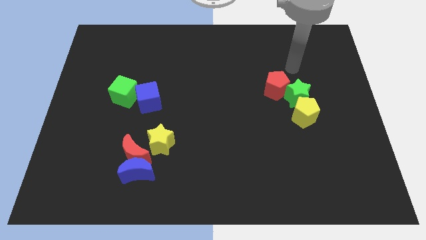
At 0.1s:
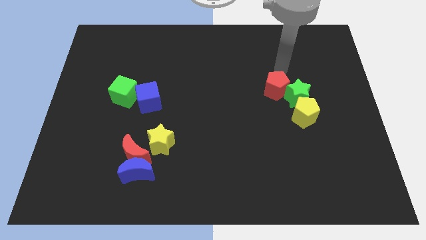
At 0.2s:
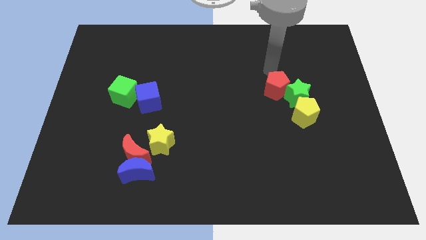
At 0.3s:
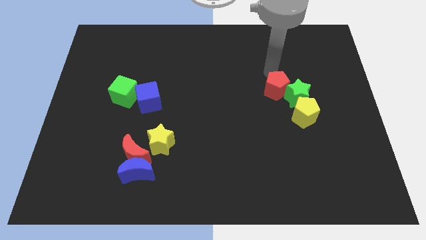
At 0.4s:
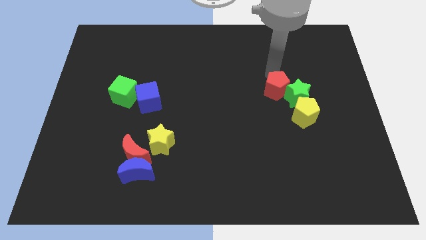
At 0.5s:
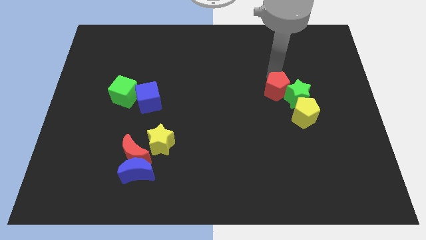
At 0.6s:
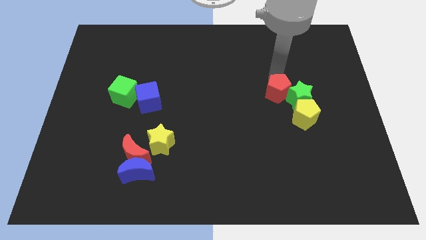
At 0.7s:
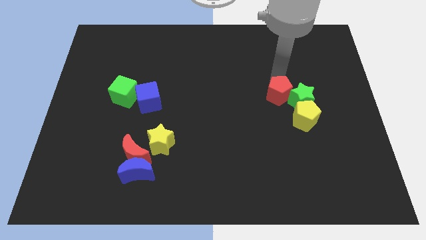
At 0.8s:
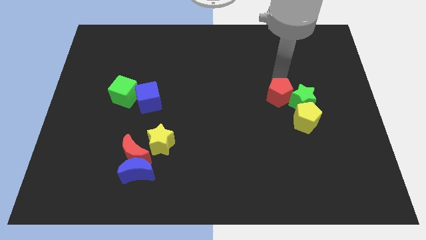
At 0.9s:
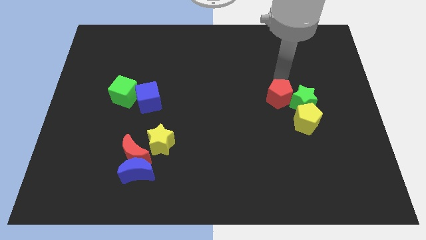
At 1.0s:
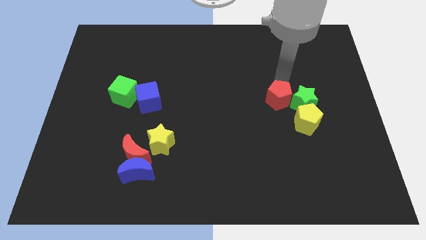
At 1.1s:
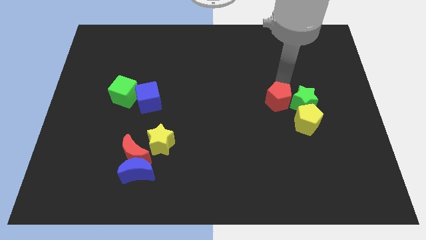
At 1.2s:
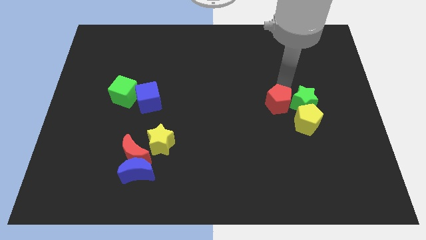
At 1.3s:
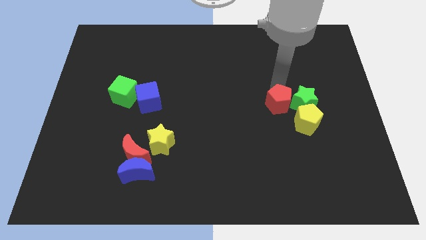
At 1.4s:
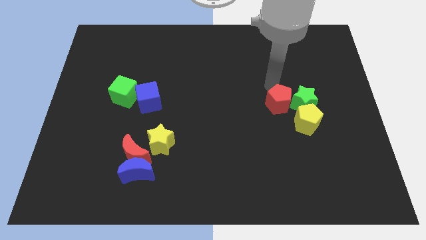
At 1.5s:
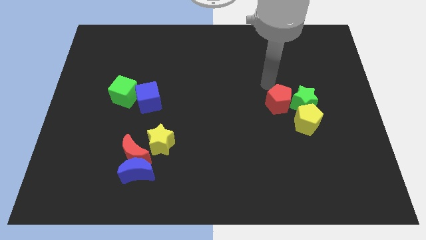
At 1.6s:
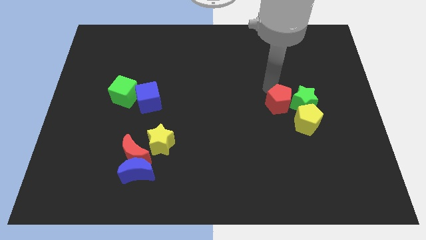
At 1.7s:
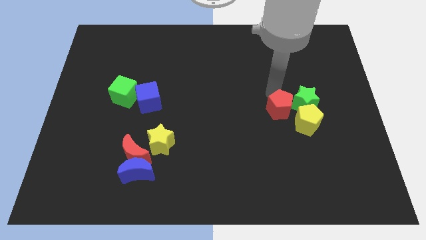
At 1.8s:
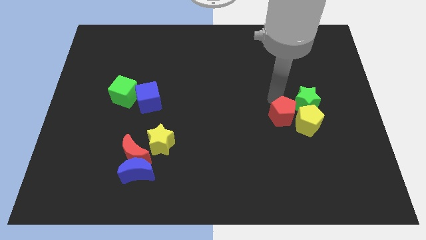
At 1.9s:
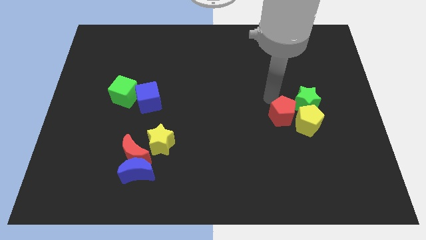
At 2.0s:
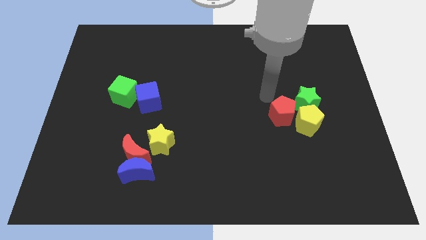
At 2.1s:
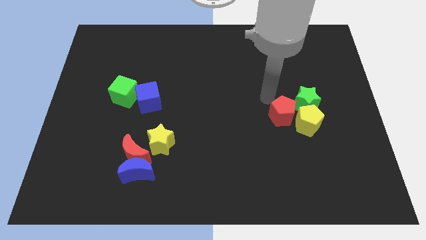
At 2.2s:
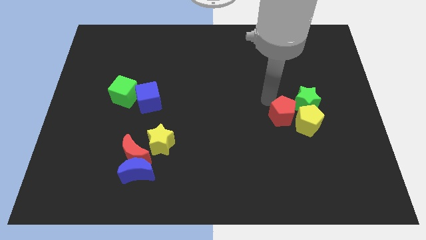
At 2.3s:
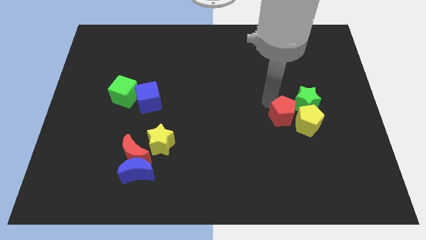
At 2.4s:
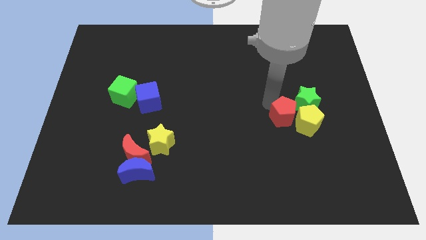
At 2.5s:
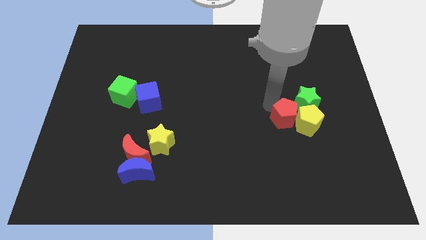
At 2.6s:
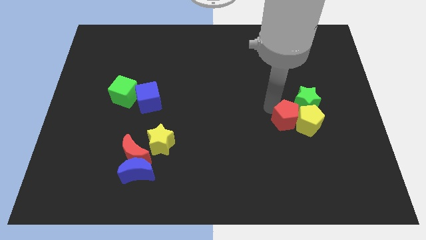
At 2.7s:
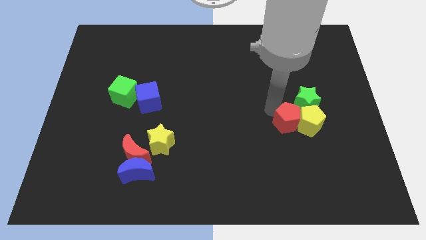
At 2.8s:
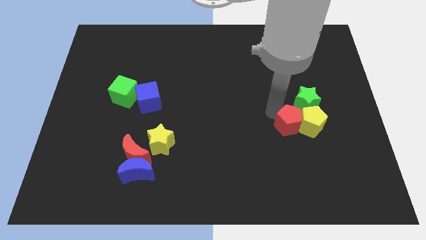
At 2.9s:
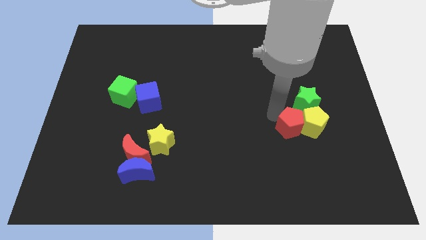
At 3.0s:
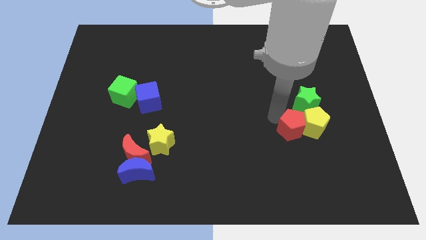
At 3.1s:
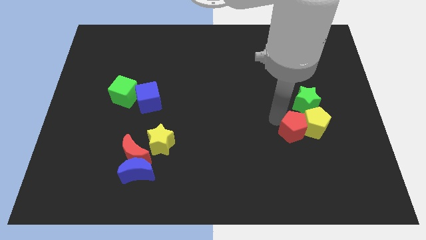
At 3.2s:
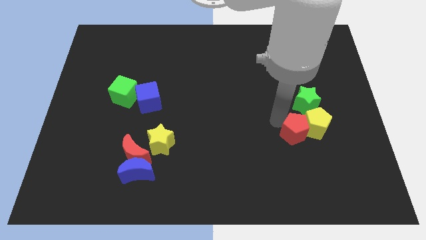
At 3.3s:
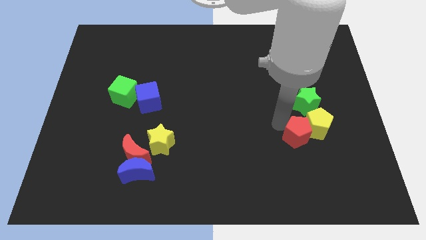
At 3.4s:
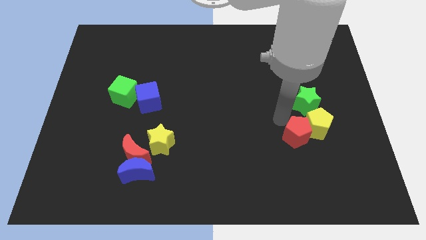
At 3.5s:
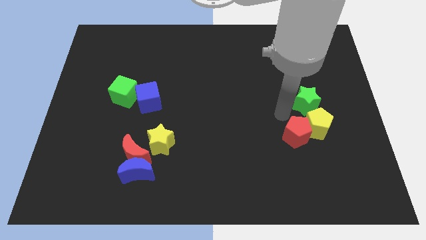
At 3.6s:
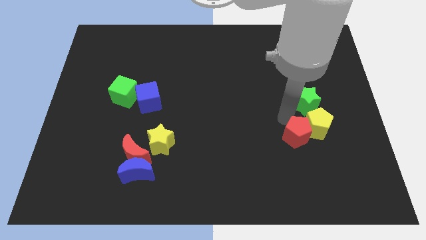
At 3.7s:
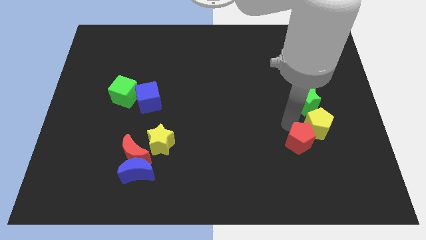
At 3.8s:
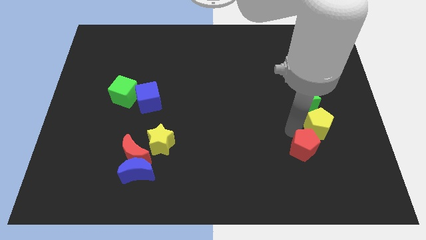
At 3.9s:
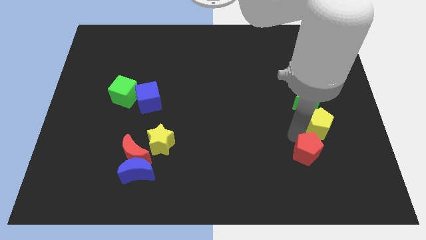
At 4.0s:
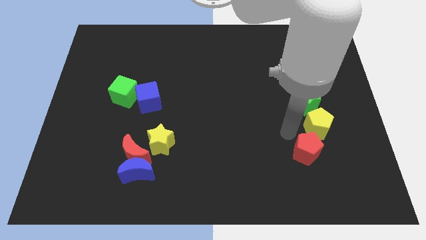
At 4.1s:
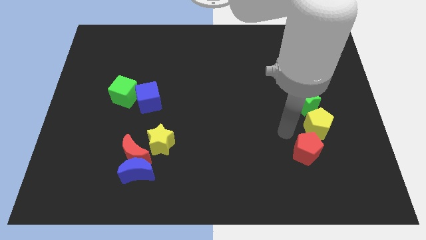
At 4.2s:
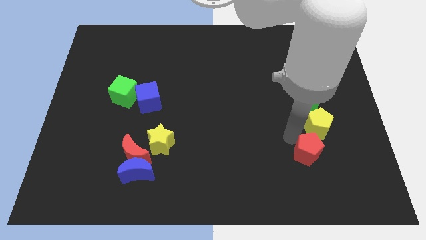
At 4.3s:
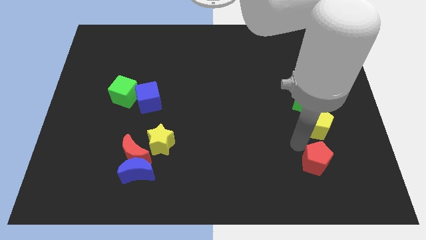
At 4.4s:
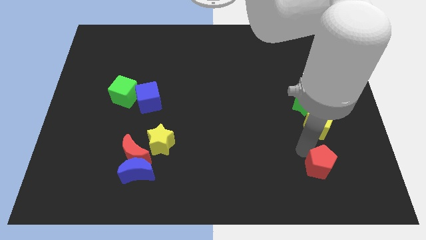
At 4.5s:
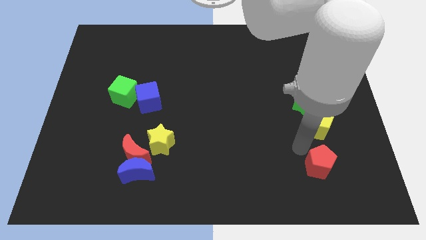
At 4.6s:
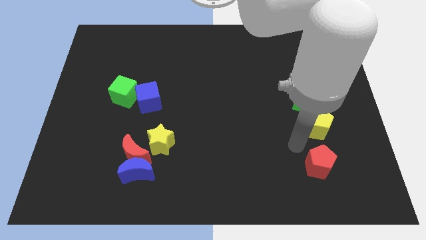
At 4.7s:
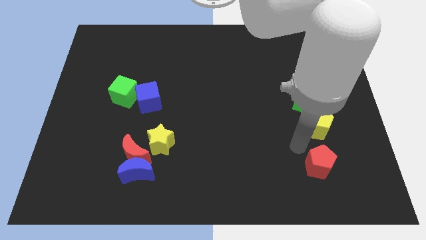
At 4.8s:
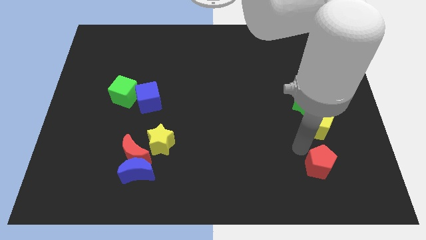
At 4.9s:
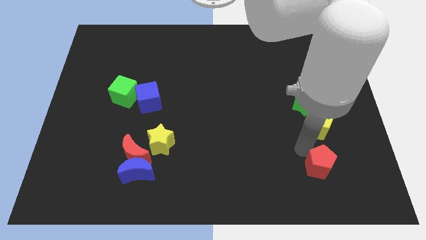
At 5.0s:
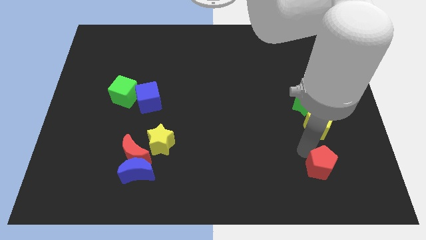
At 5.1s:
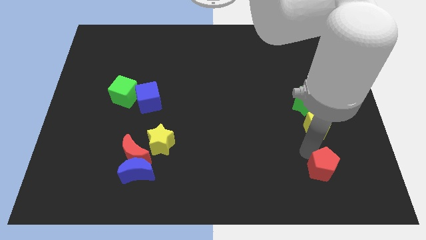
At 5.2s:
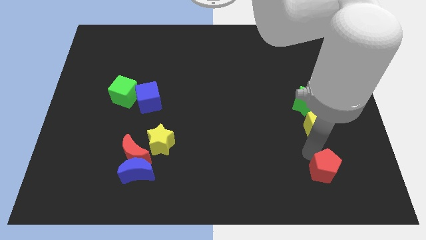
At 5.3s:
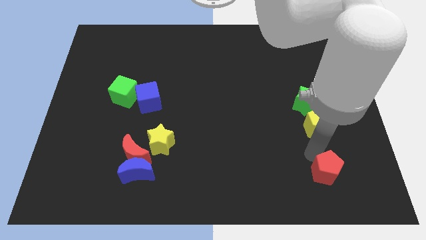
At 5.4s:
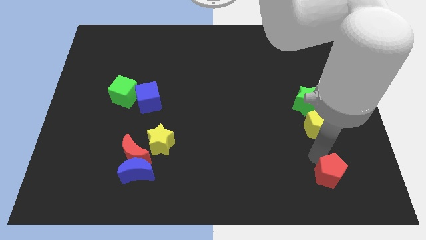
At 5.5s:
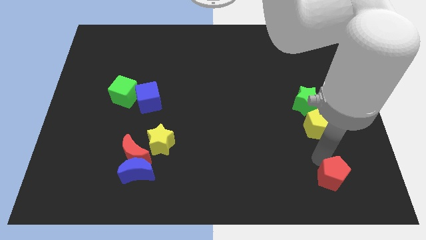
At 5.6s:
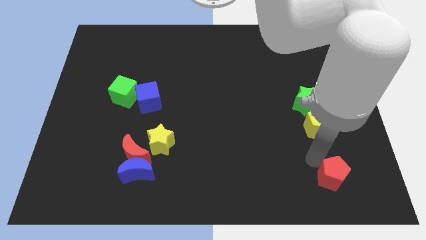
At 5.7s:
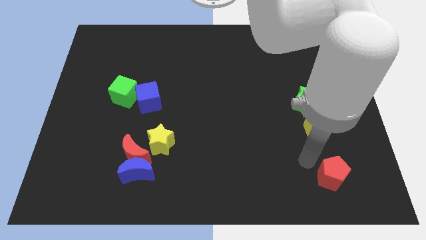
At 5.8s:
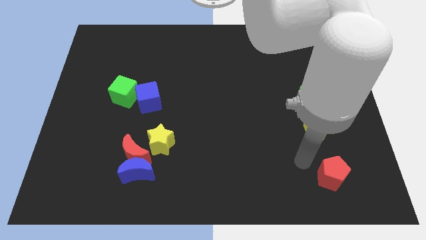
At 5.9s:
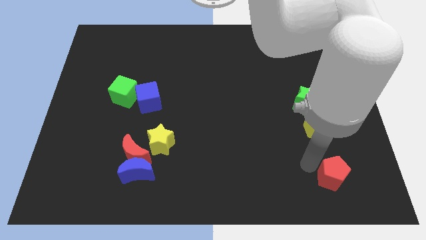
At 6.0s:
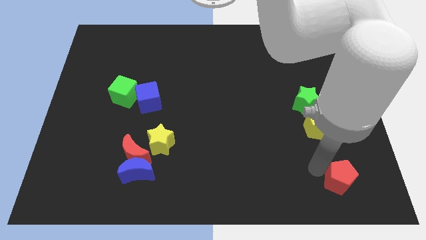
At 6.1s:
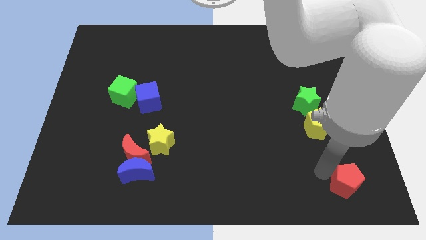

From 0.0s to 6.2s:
push the red pentagon to the bottom right corner
